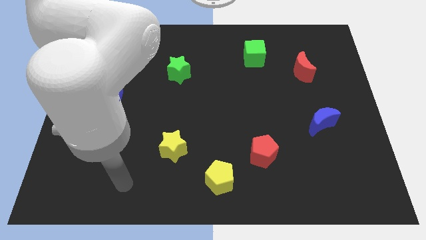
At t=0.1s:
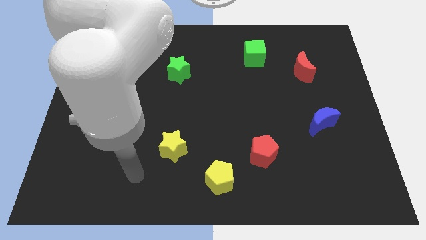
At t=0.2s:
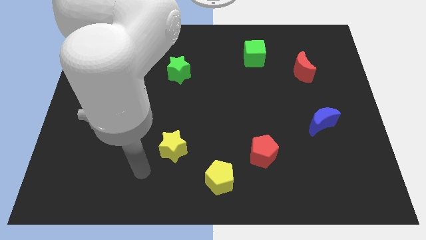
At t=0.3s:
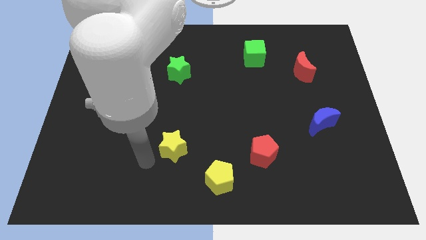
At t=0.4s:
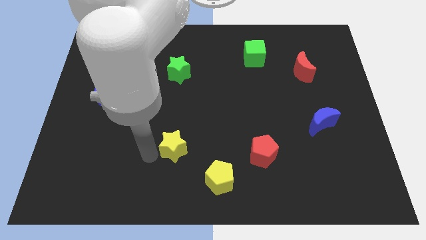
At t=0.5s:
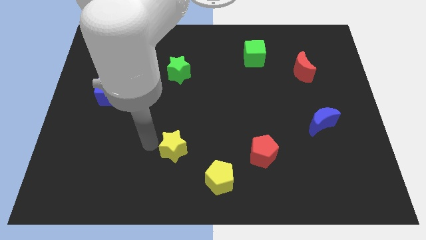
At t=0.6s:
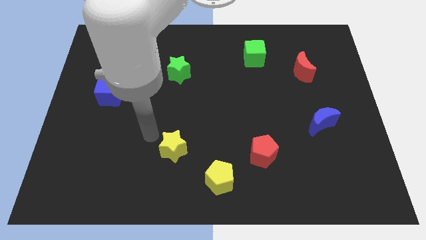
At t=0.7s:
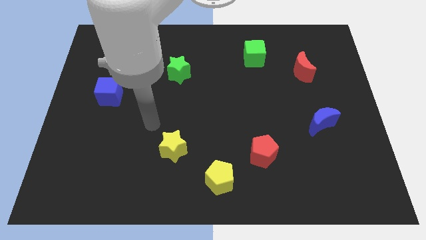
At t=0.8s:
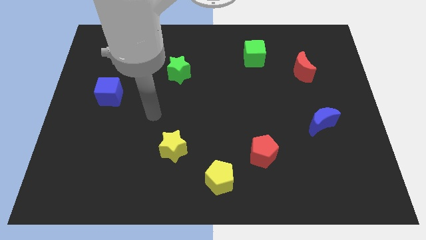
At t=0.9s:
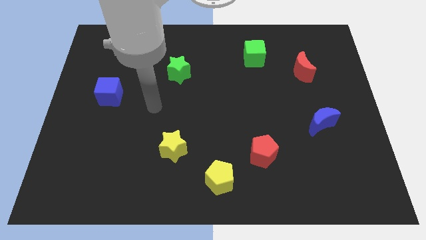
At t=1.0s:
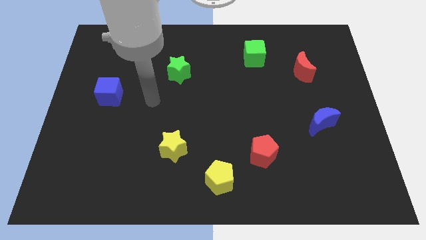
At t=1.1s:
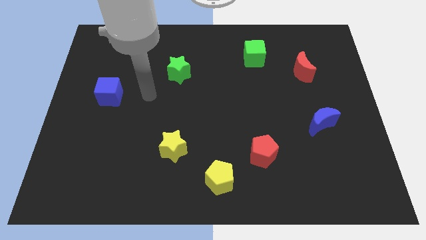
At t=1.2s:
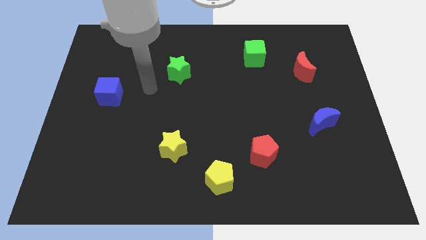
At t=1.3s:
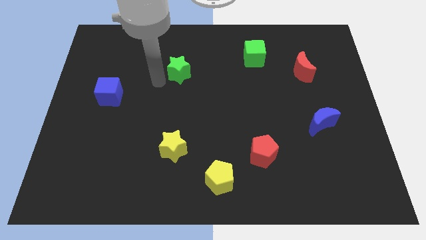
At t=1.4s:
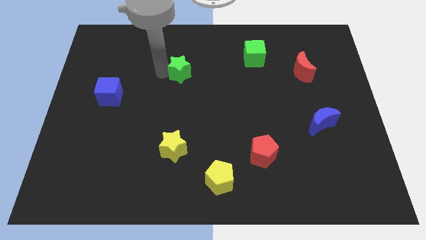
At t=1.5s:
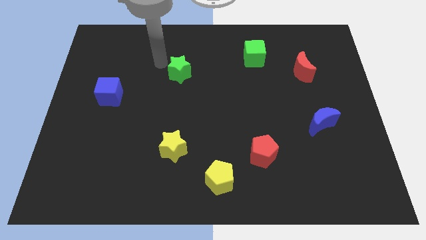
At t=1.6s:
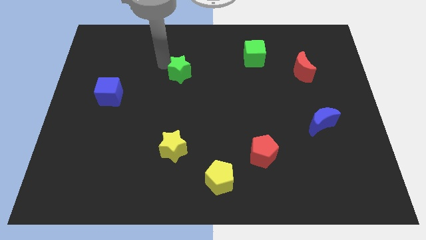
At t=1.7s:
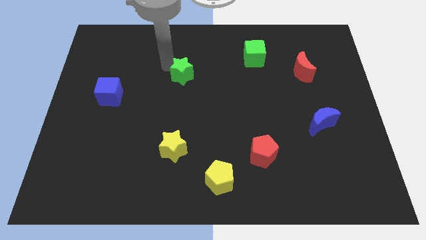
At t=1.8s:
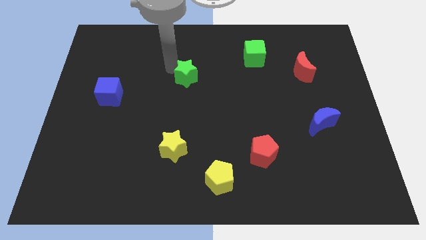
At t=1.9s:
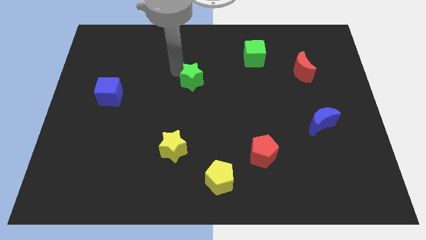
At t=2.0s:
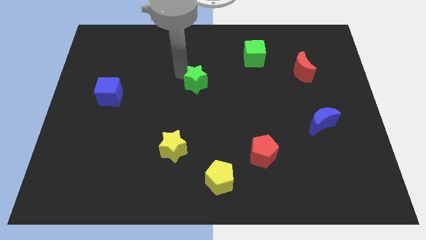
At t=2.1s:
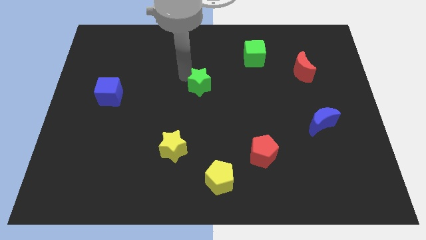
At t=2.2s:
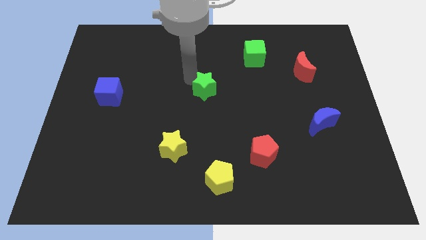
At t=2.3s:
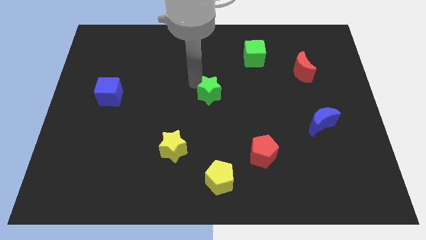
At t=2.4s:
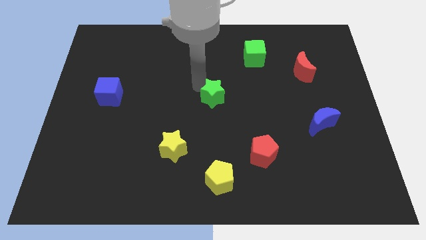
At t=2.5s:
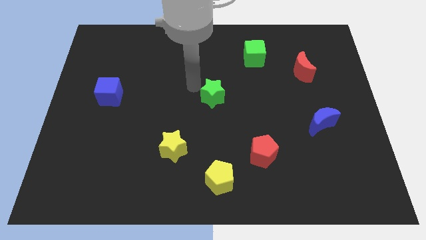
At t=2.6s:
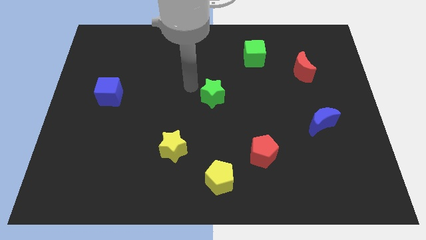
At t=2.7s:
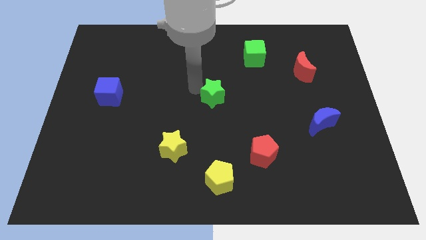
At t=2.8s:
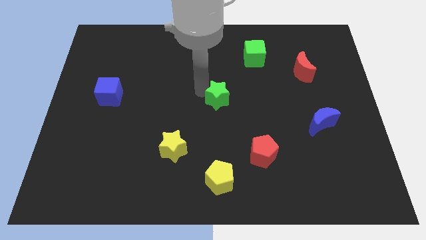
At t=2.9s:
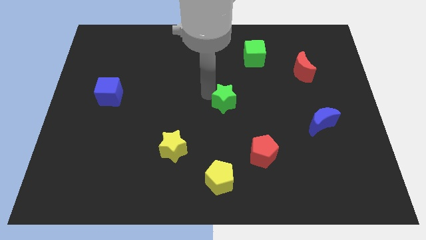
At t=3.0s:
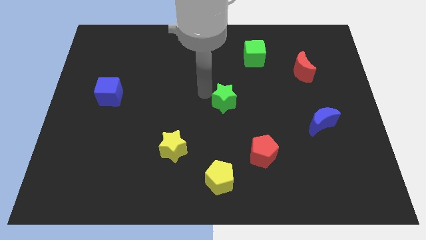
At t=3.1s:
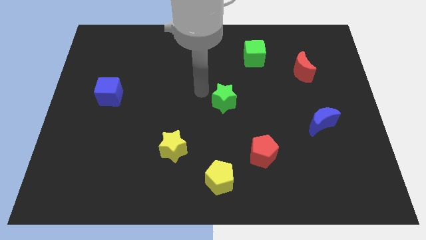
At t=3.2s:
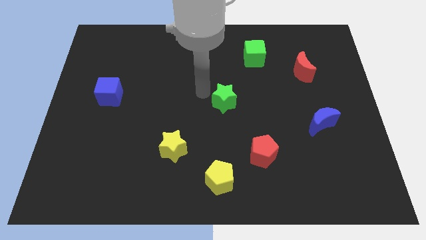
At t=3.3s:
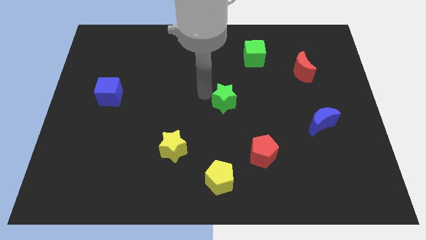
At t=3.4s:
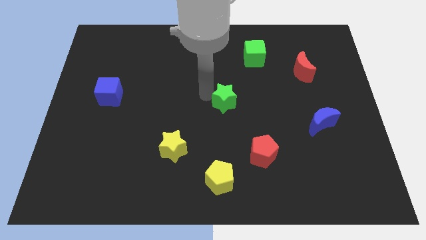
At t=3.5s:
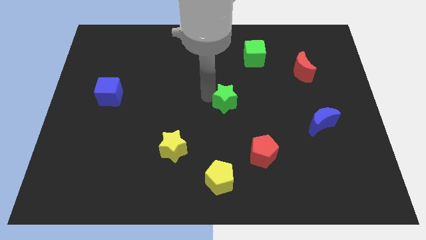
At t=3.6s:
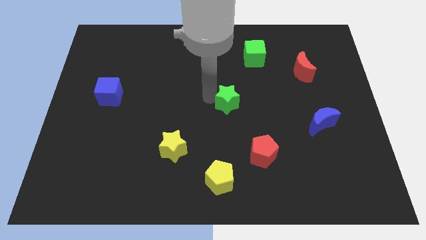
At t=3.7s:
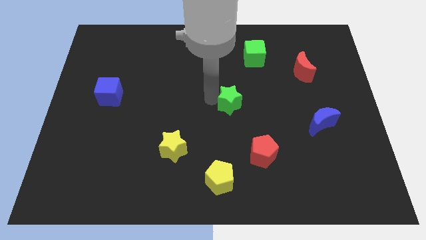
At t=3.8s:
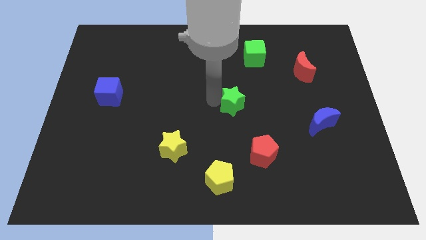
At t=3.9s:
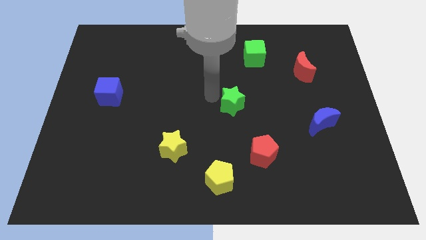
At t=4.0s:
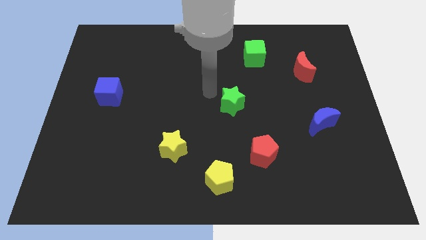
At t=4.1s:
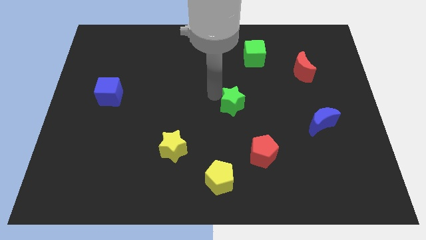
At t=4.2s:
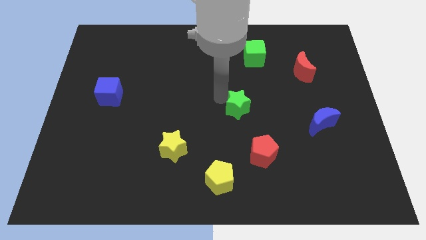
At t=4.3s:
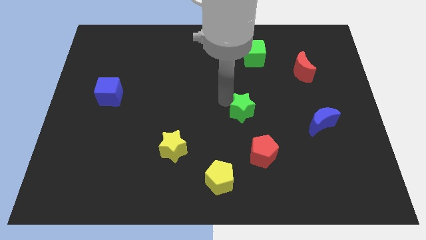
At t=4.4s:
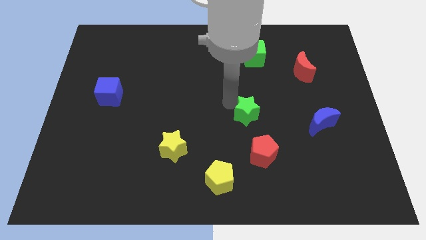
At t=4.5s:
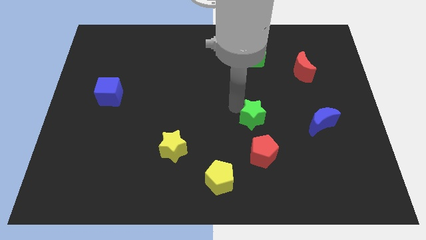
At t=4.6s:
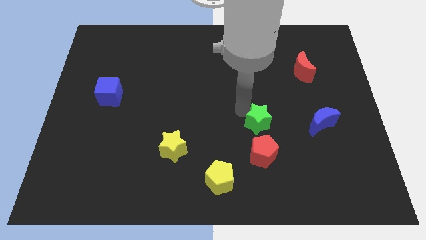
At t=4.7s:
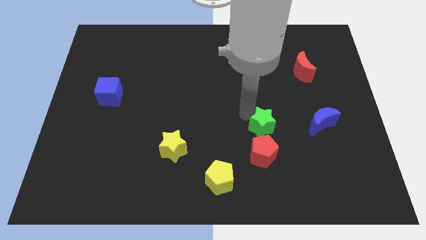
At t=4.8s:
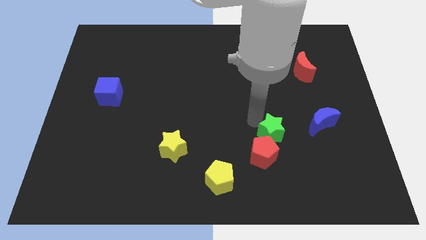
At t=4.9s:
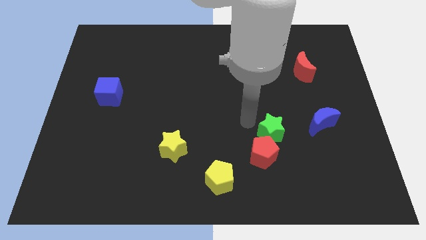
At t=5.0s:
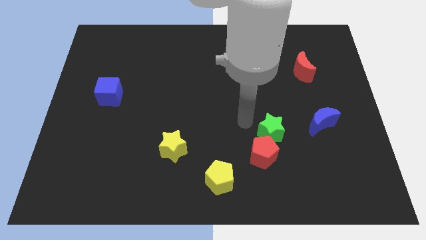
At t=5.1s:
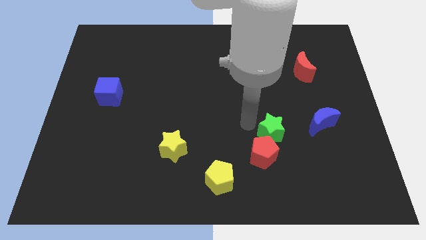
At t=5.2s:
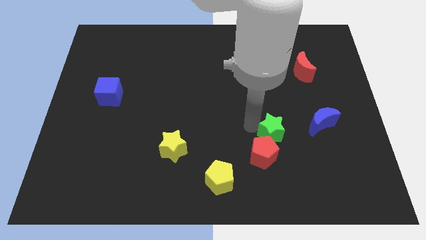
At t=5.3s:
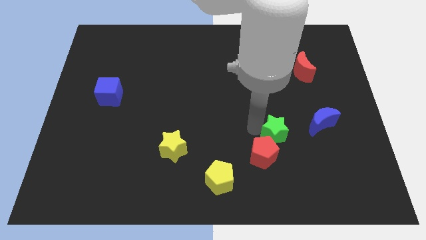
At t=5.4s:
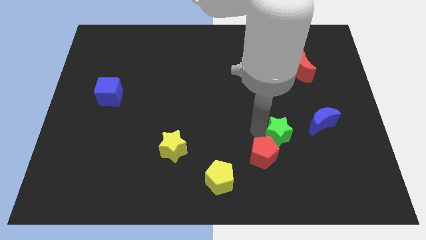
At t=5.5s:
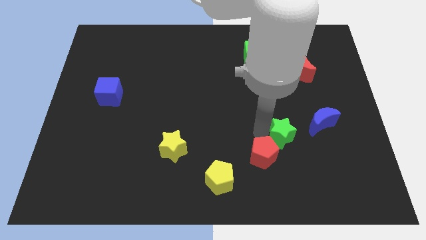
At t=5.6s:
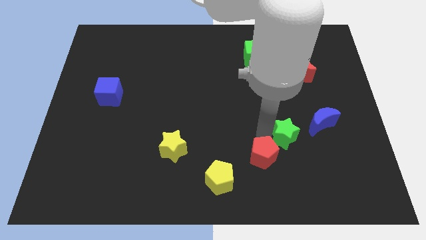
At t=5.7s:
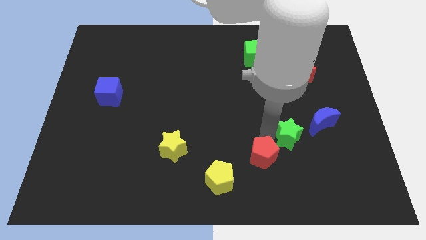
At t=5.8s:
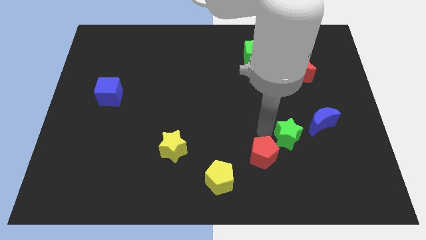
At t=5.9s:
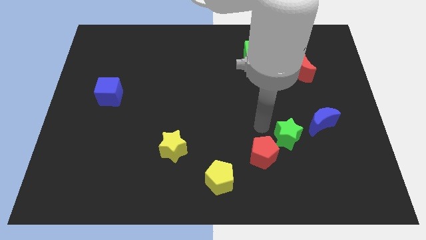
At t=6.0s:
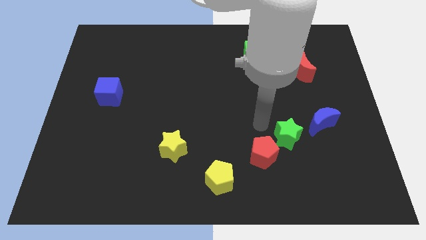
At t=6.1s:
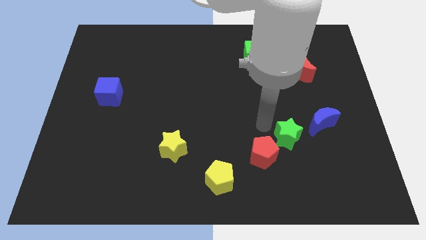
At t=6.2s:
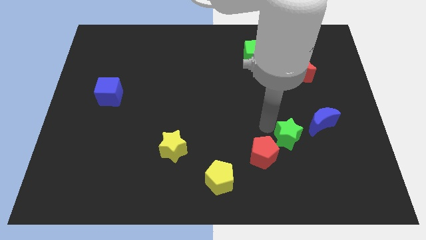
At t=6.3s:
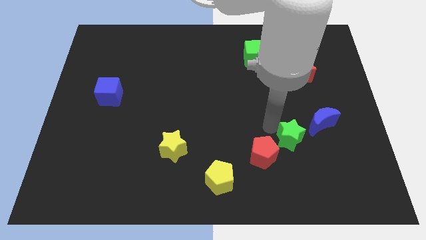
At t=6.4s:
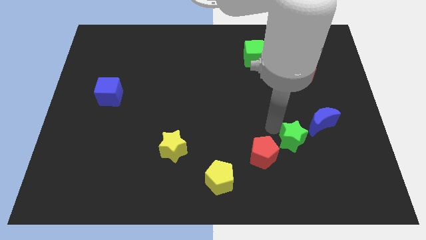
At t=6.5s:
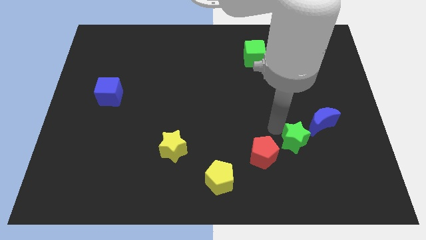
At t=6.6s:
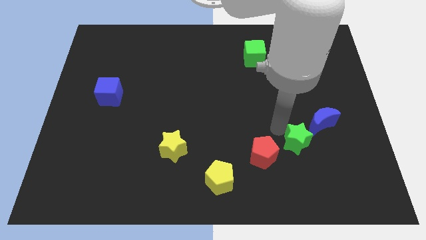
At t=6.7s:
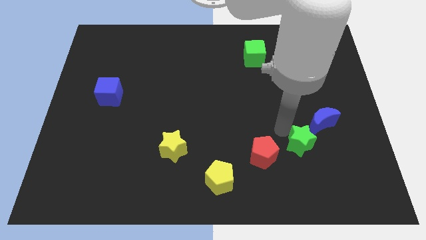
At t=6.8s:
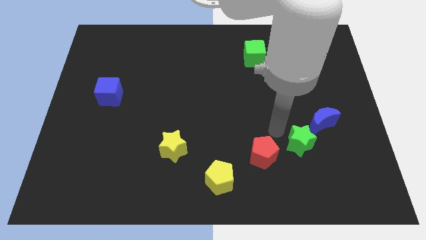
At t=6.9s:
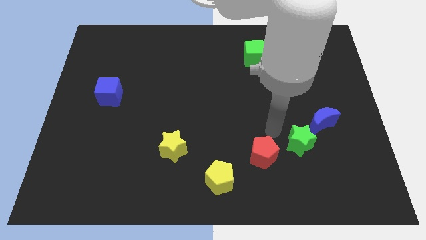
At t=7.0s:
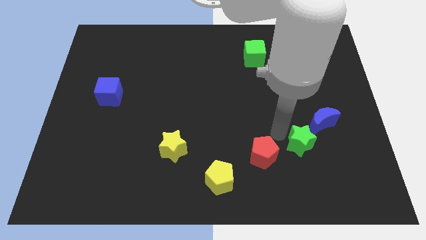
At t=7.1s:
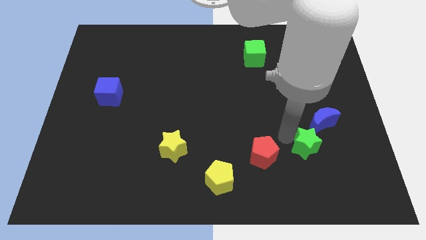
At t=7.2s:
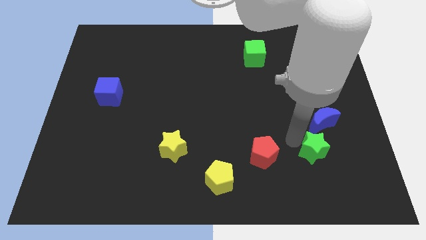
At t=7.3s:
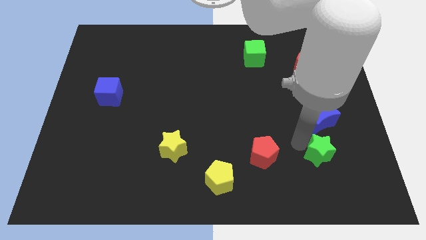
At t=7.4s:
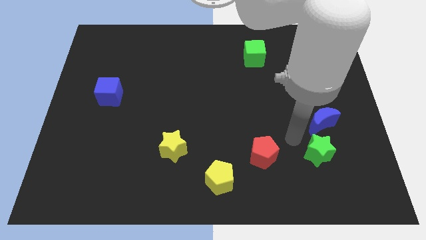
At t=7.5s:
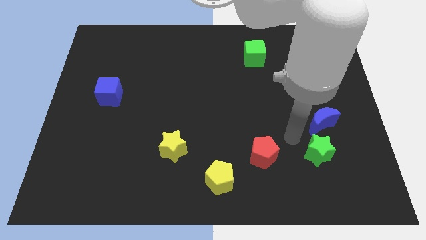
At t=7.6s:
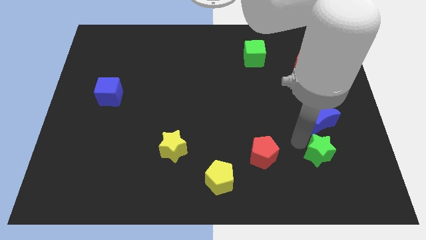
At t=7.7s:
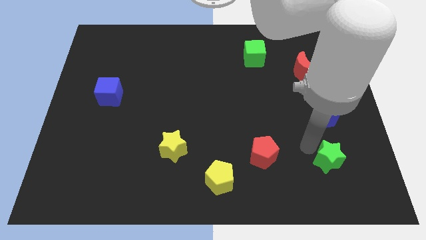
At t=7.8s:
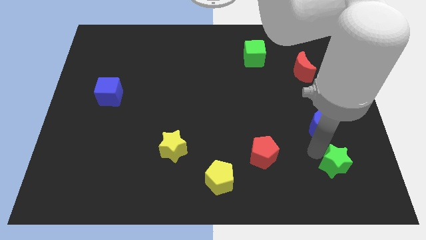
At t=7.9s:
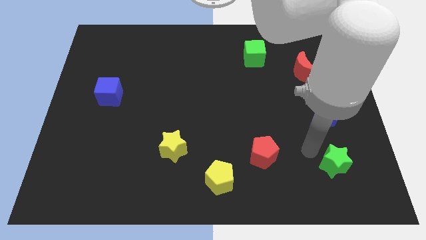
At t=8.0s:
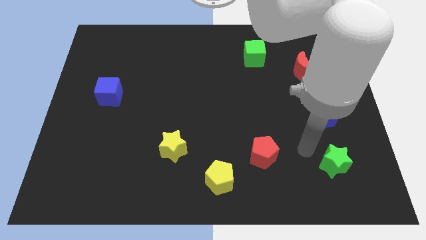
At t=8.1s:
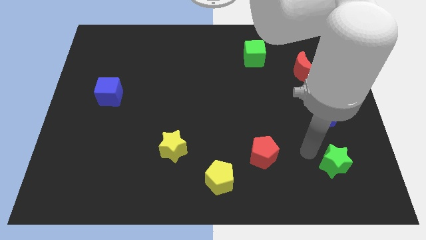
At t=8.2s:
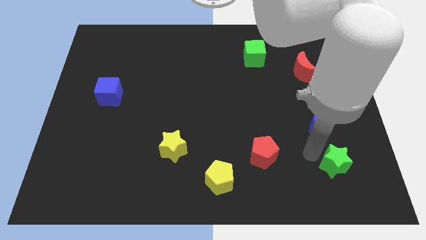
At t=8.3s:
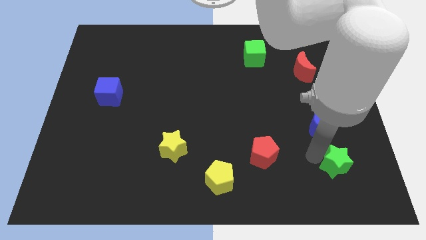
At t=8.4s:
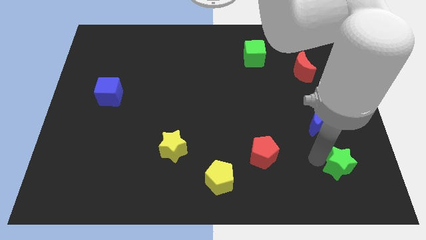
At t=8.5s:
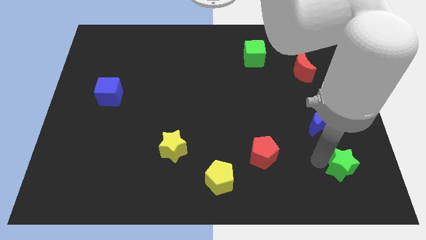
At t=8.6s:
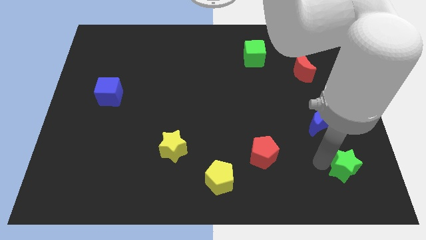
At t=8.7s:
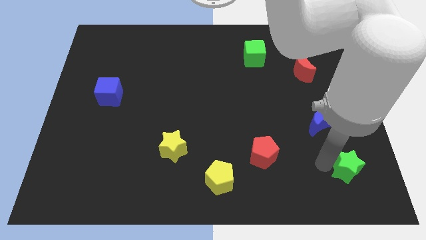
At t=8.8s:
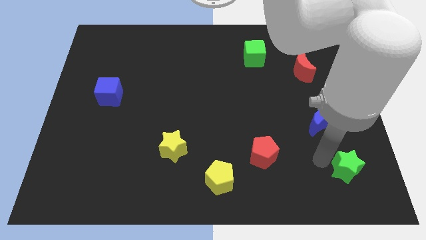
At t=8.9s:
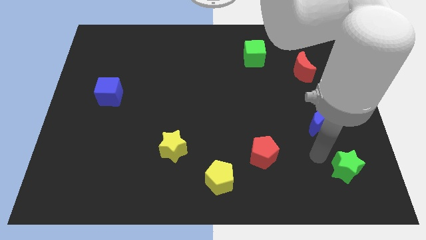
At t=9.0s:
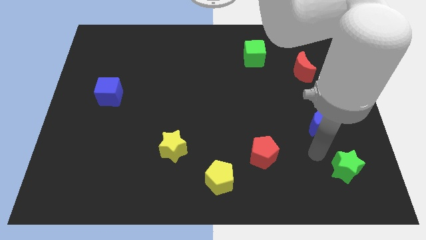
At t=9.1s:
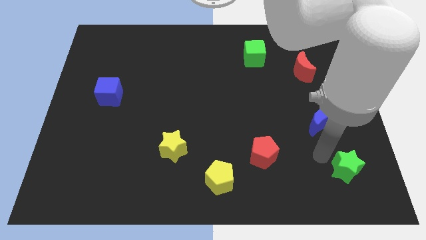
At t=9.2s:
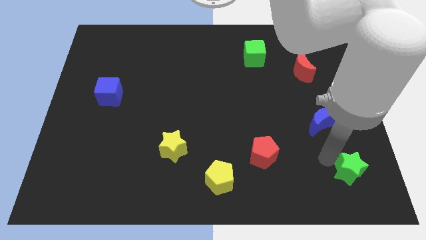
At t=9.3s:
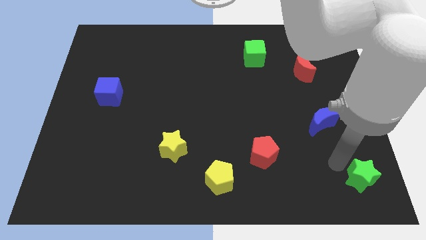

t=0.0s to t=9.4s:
put the green star to the bottom right of the board
